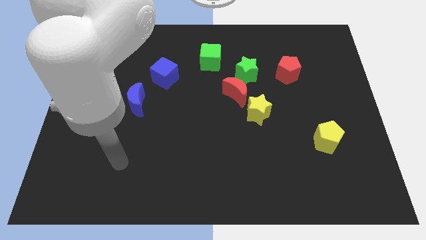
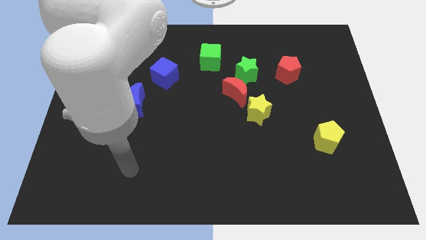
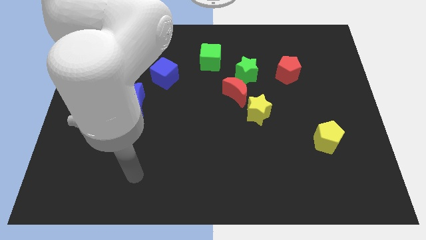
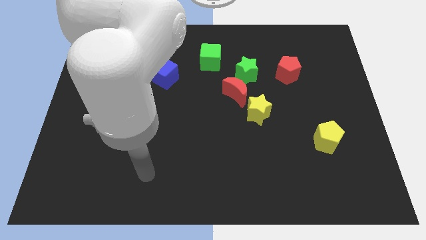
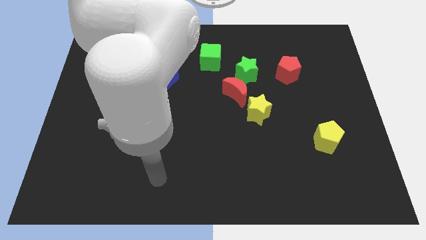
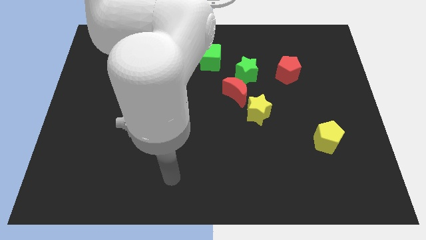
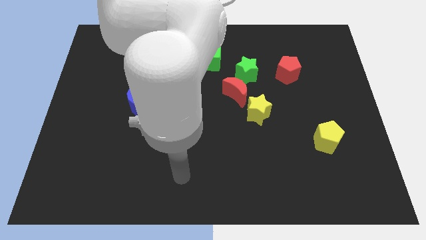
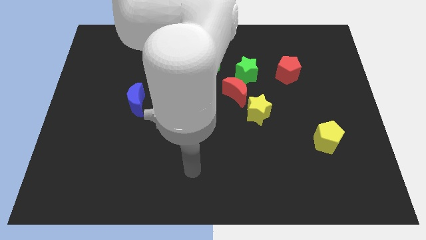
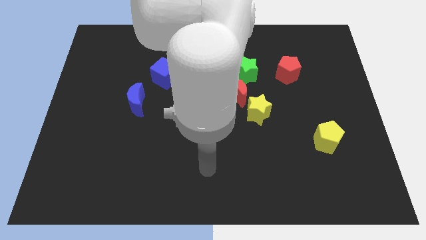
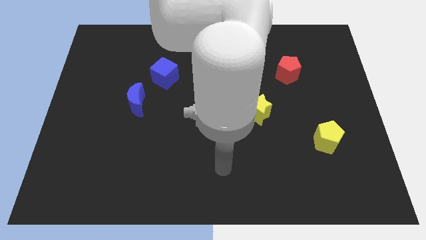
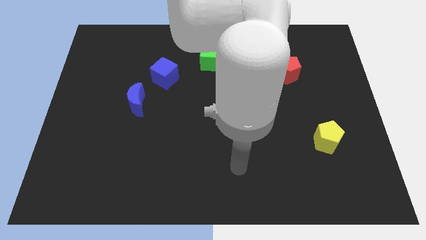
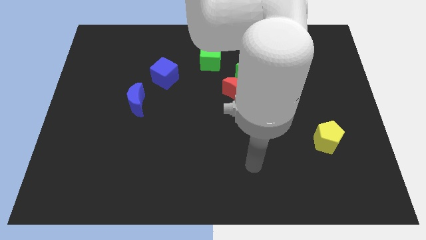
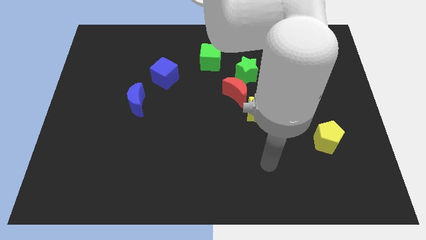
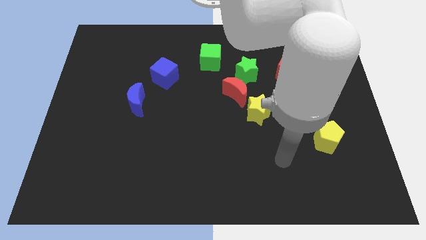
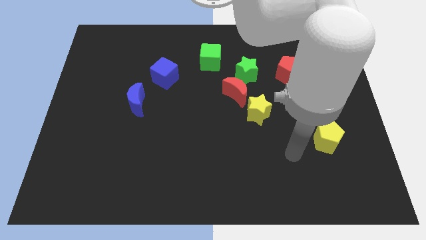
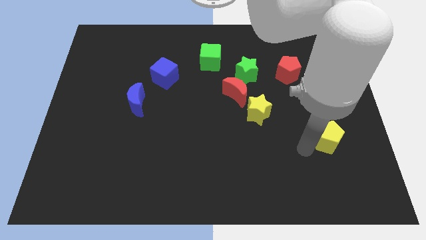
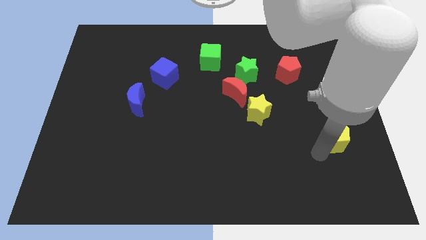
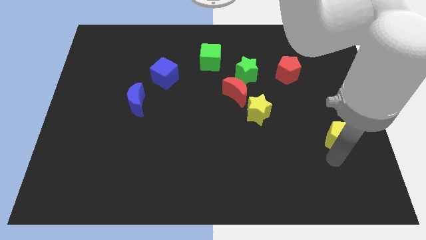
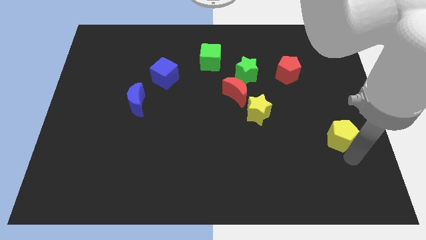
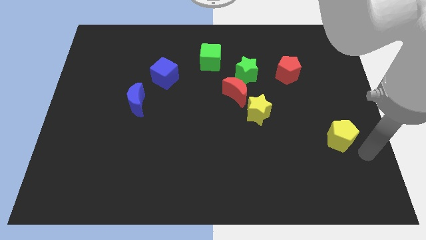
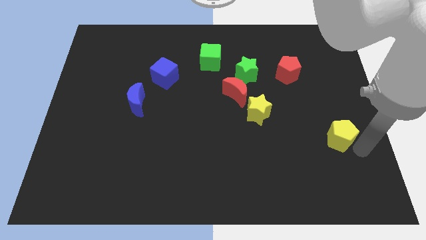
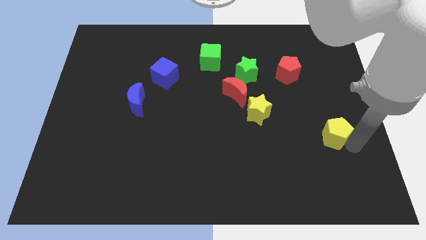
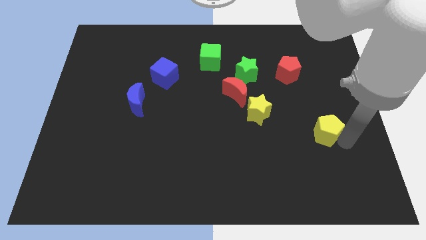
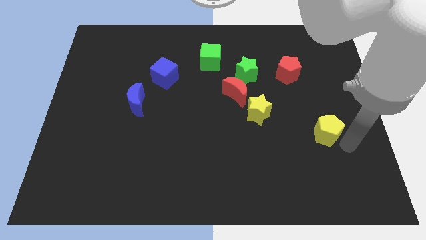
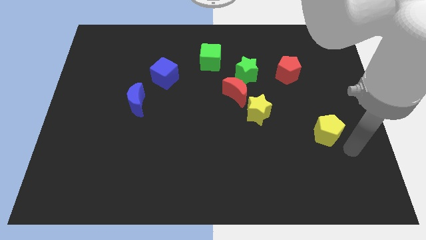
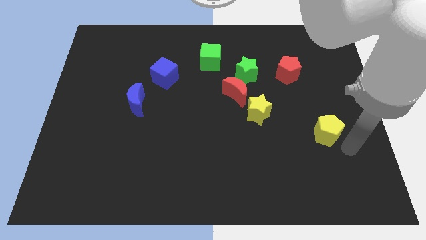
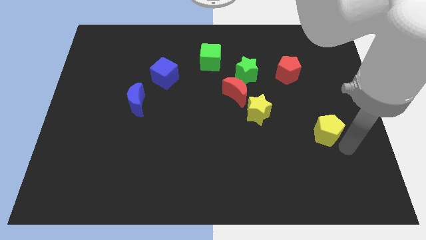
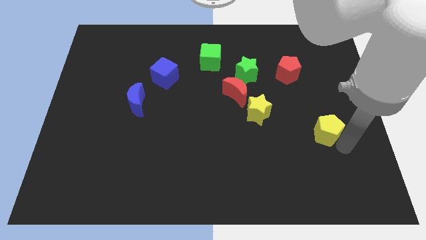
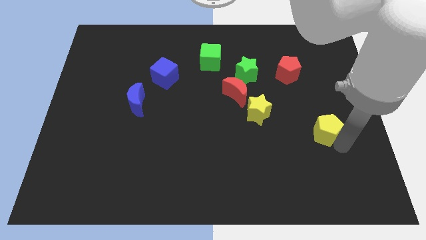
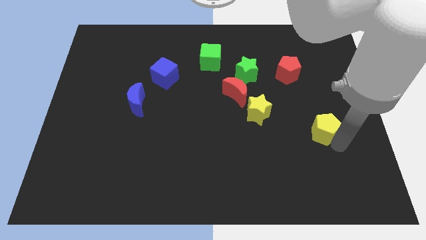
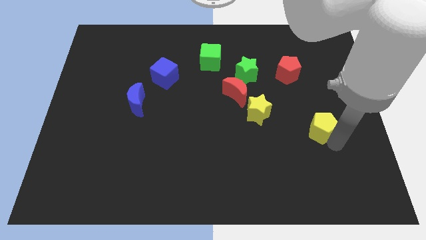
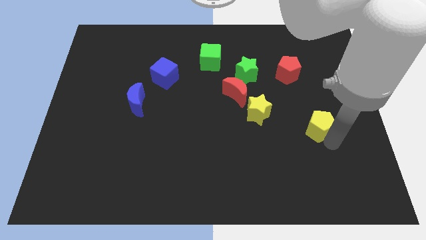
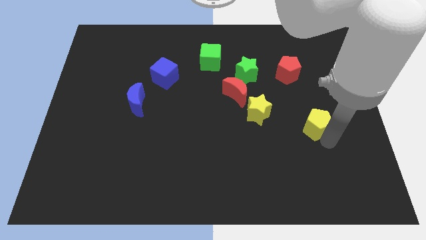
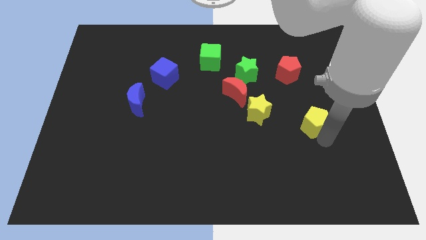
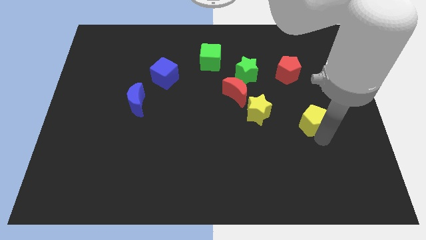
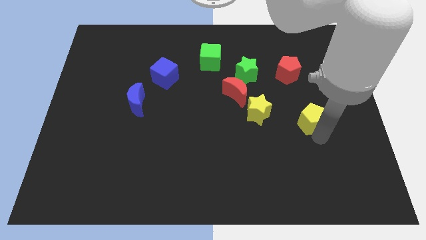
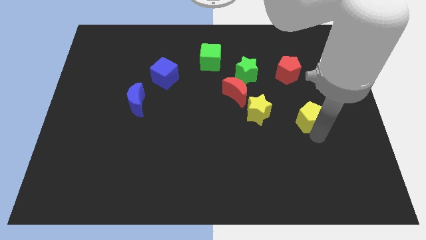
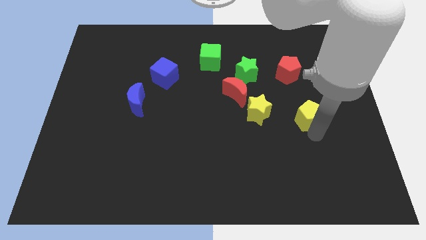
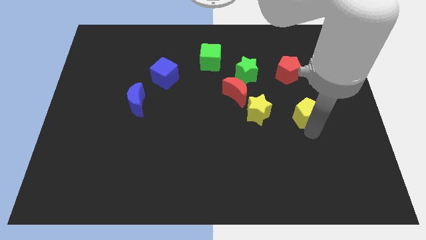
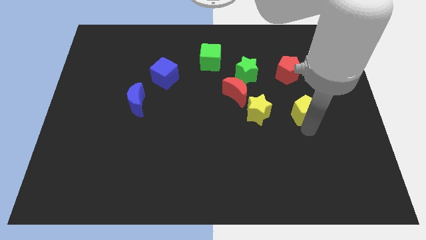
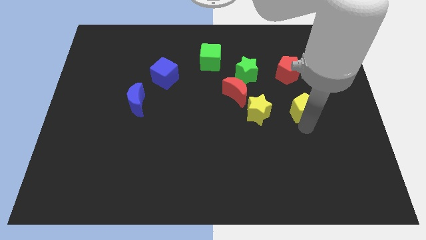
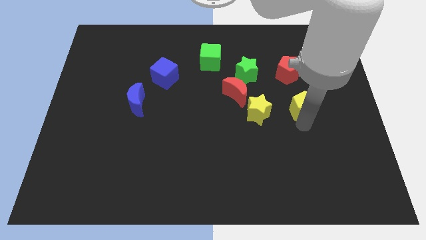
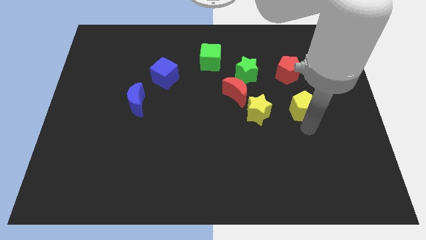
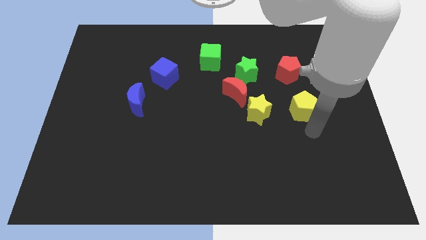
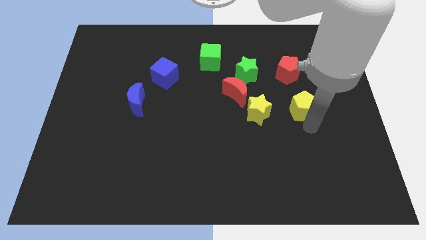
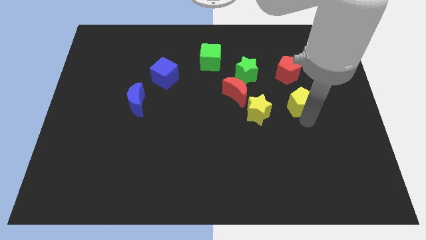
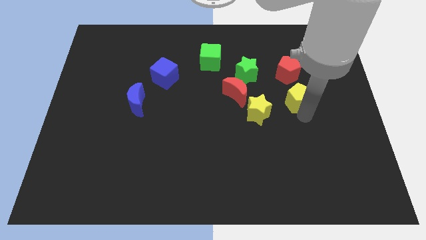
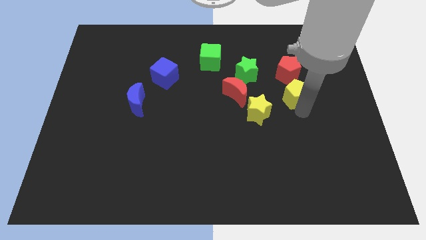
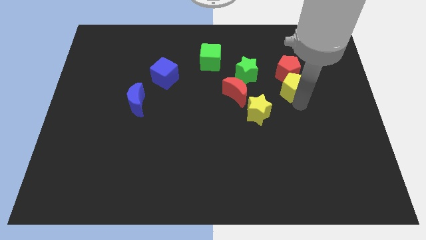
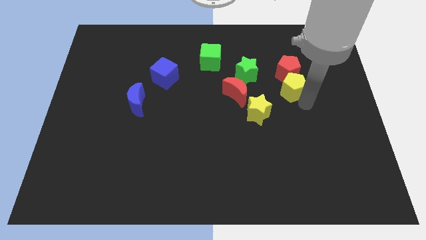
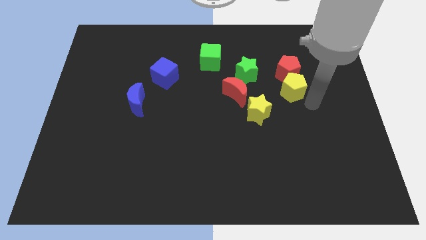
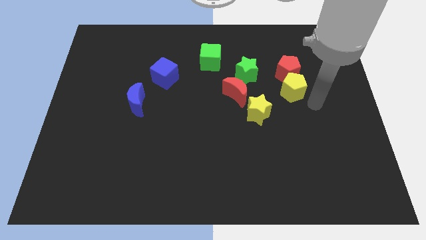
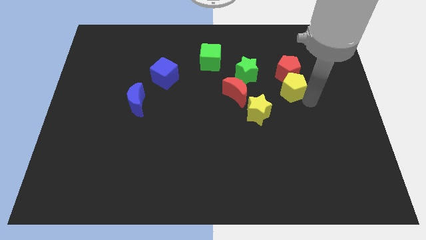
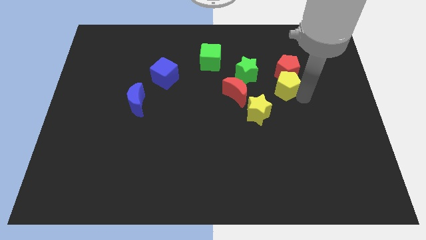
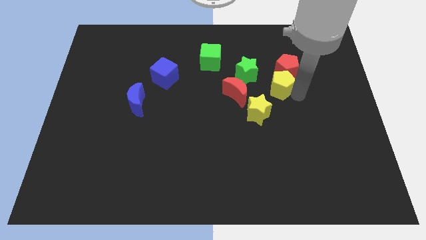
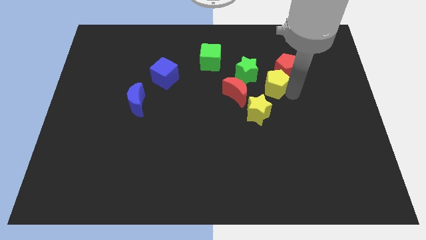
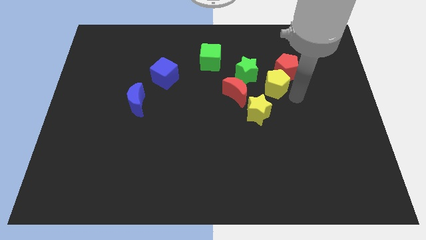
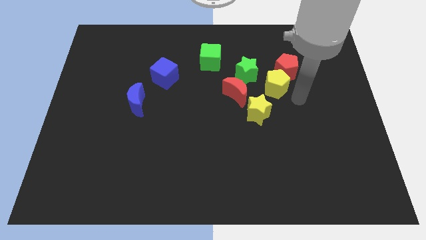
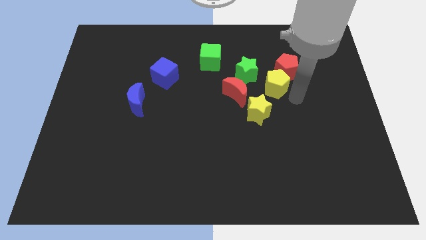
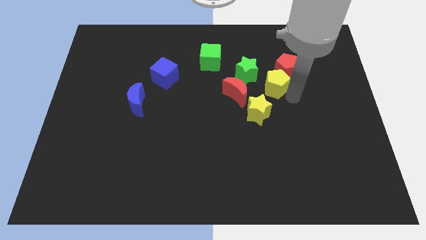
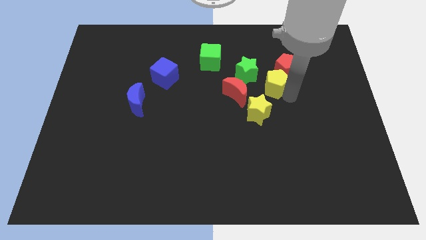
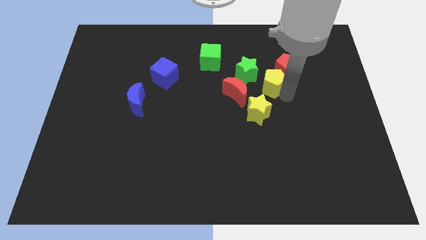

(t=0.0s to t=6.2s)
put the yellow pentagon to the top right side of the red moon
